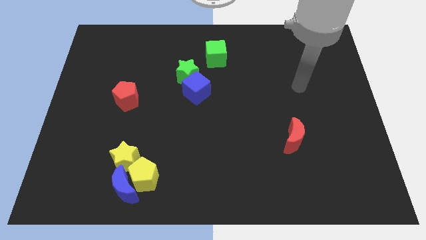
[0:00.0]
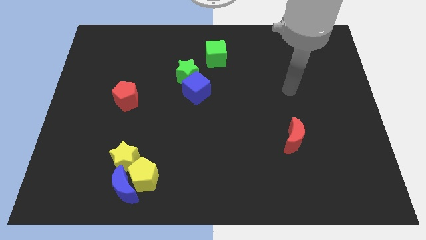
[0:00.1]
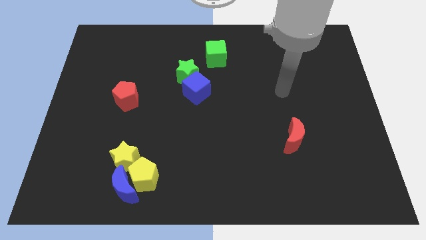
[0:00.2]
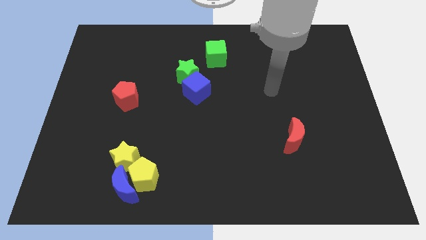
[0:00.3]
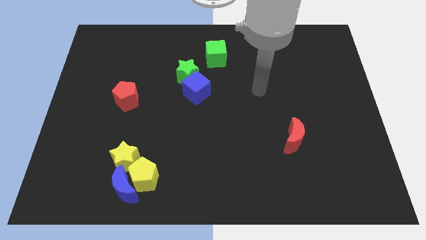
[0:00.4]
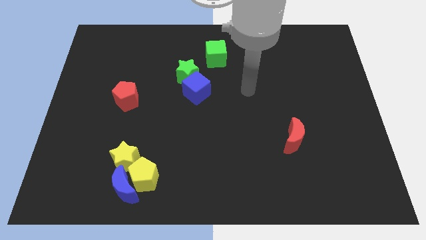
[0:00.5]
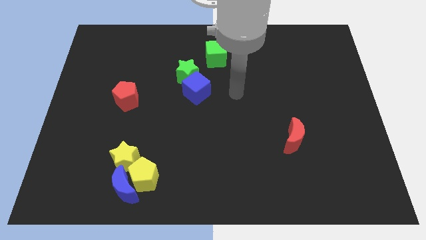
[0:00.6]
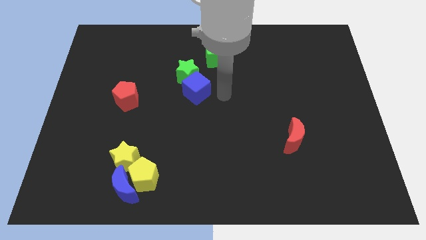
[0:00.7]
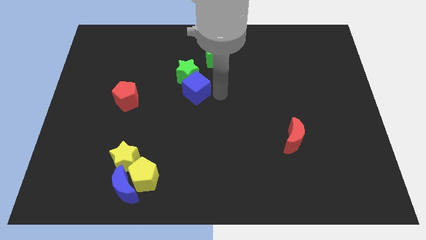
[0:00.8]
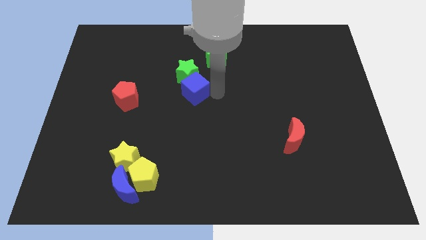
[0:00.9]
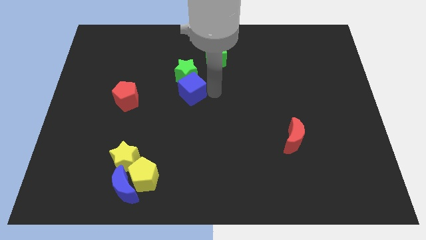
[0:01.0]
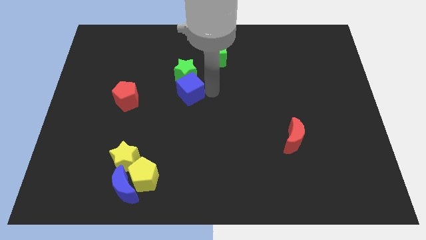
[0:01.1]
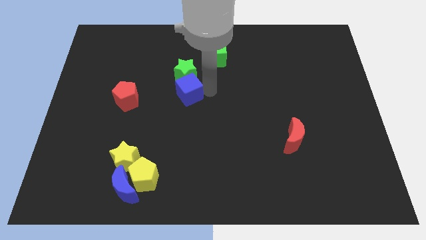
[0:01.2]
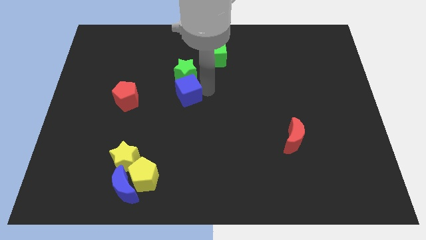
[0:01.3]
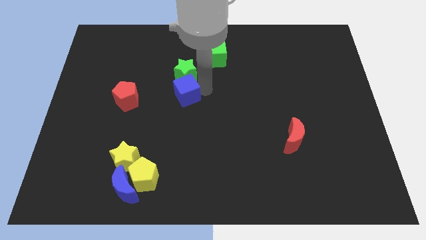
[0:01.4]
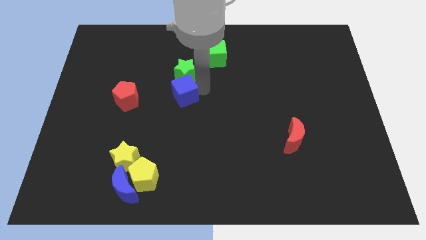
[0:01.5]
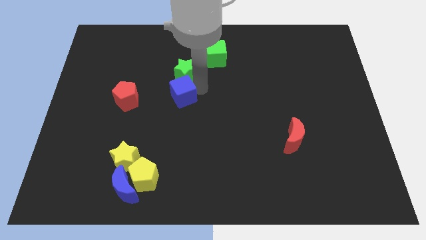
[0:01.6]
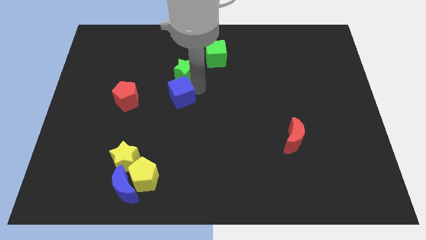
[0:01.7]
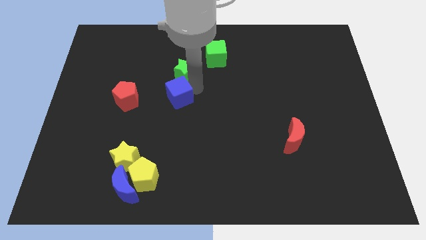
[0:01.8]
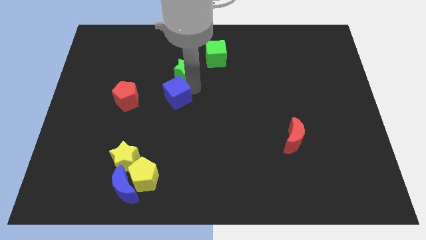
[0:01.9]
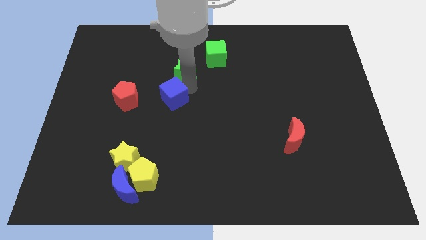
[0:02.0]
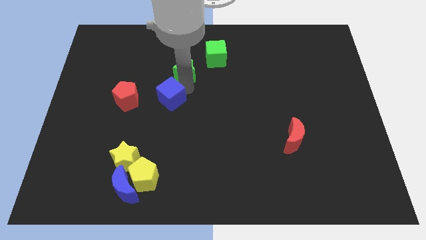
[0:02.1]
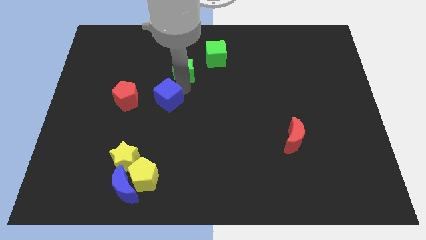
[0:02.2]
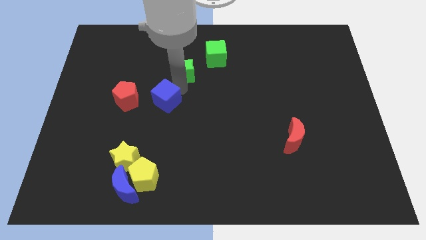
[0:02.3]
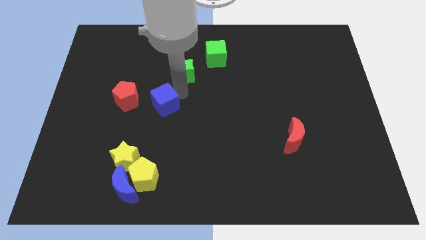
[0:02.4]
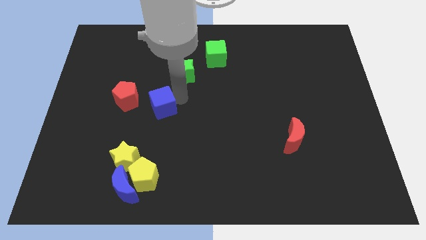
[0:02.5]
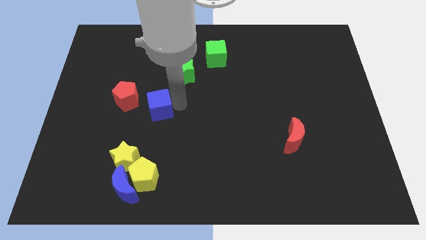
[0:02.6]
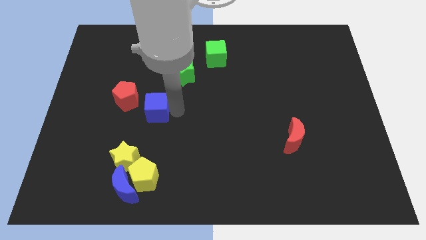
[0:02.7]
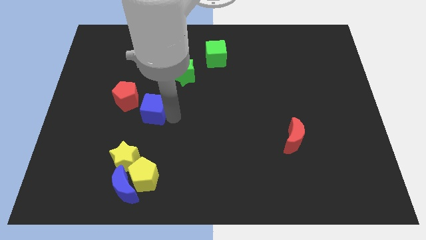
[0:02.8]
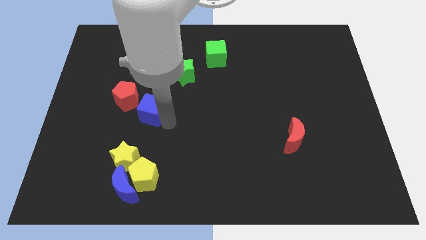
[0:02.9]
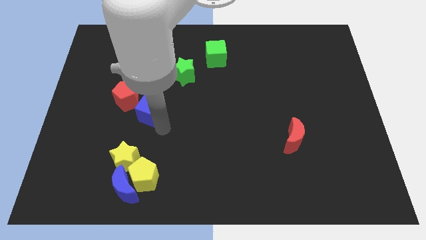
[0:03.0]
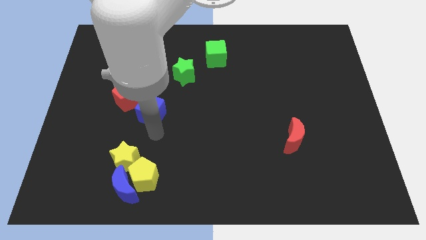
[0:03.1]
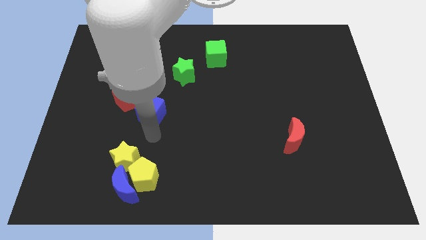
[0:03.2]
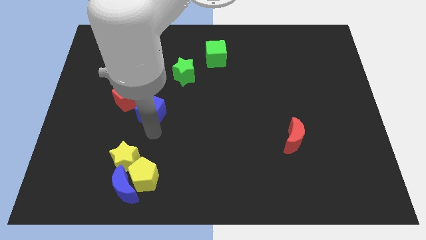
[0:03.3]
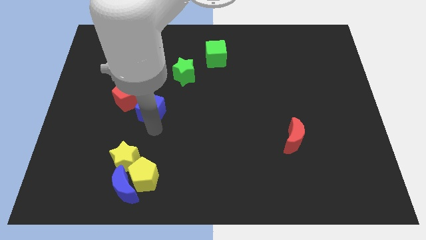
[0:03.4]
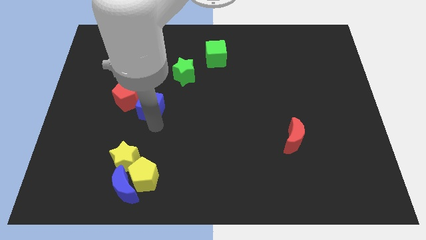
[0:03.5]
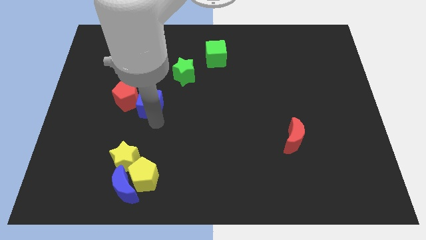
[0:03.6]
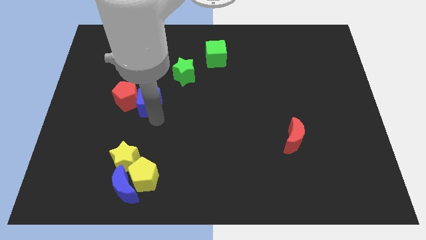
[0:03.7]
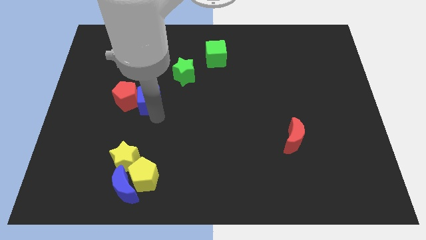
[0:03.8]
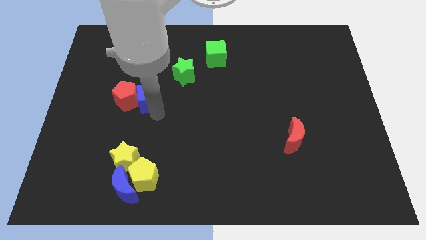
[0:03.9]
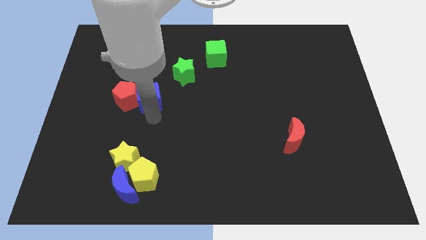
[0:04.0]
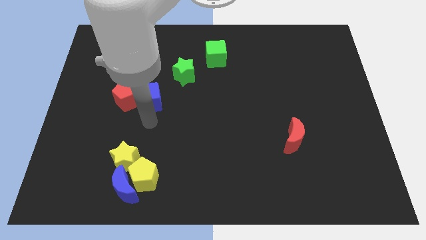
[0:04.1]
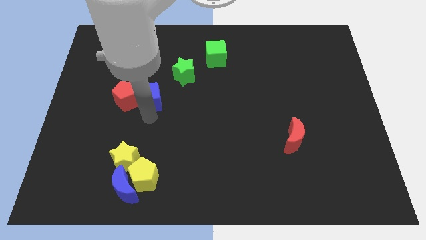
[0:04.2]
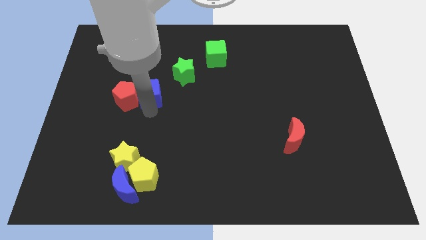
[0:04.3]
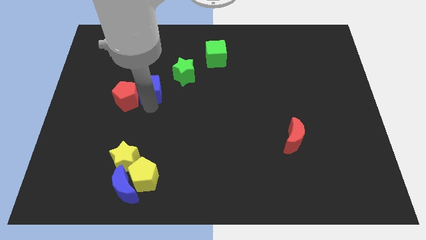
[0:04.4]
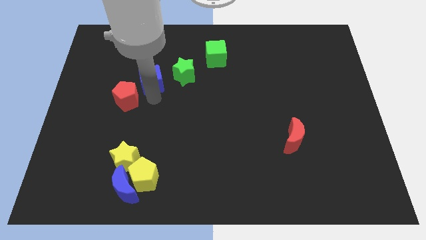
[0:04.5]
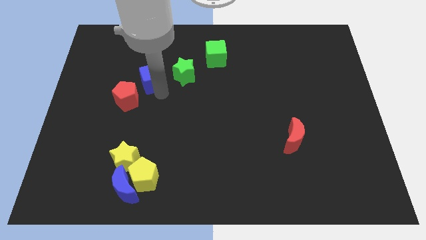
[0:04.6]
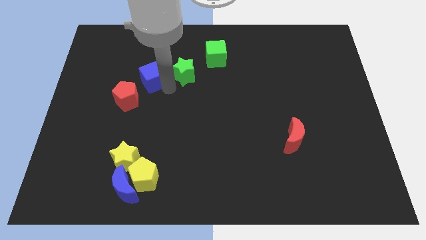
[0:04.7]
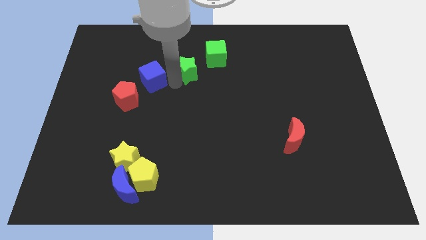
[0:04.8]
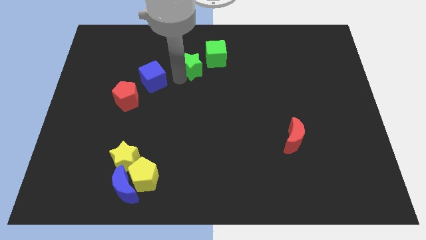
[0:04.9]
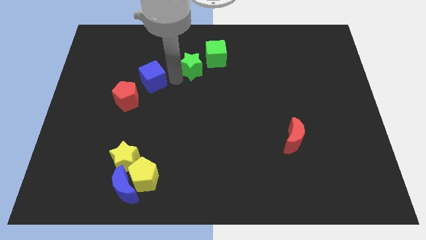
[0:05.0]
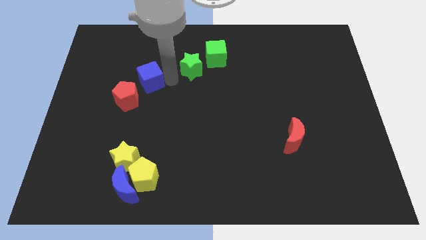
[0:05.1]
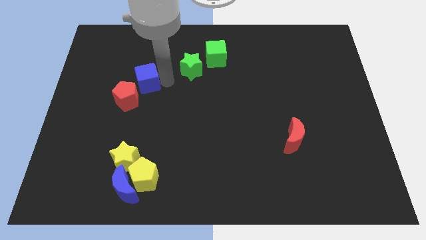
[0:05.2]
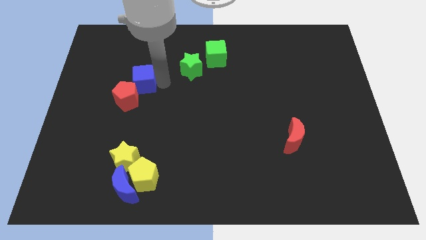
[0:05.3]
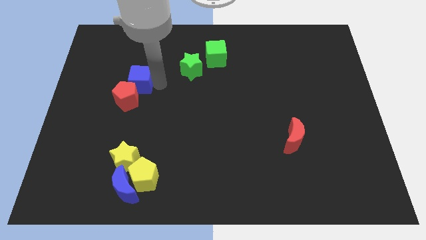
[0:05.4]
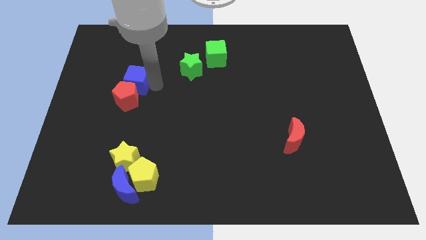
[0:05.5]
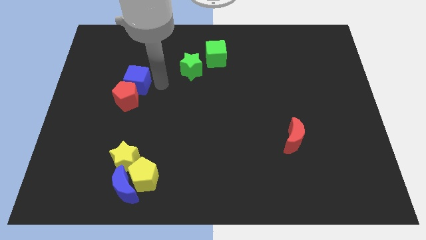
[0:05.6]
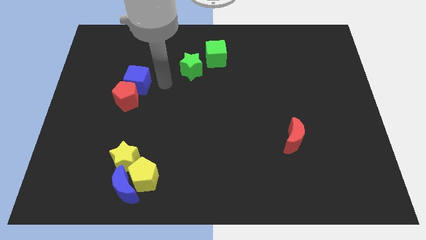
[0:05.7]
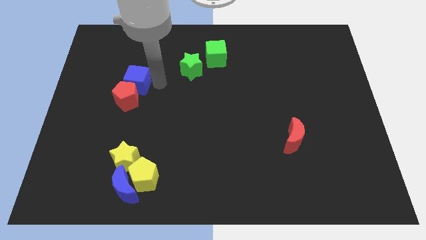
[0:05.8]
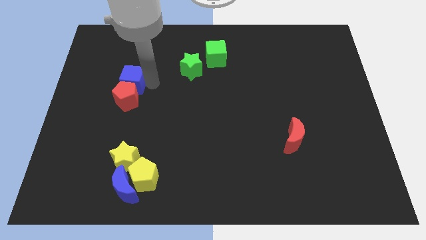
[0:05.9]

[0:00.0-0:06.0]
put the blue cube to the top left of the red pentagon

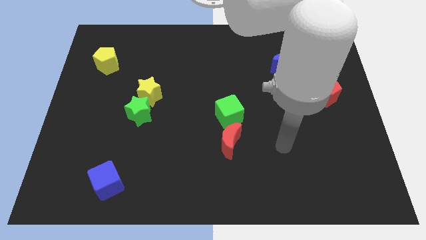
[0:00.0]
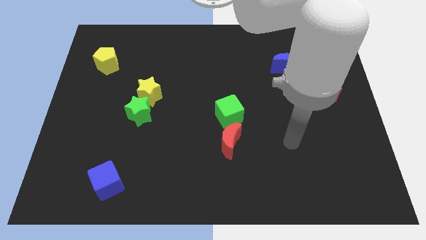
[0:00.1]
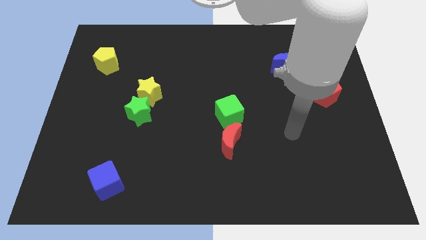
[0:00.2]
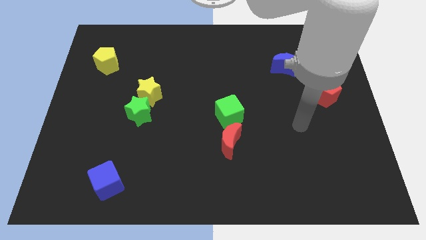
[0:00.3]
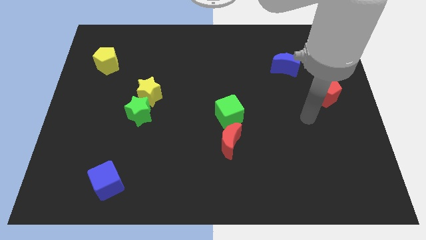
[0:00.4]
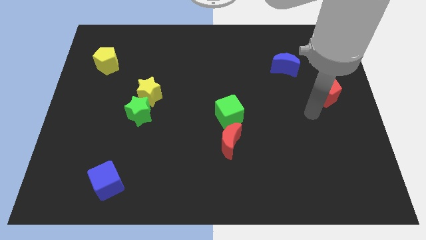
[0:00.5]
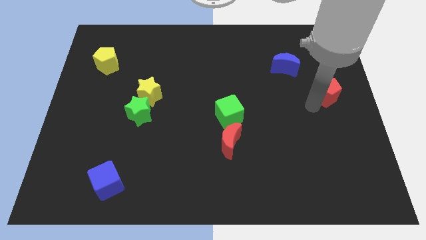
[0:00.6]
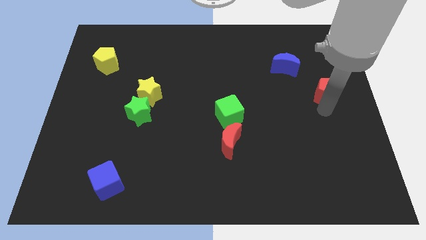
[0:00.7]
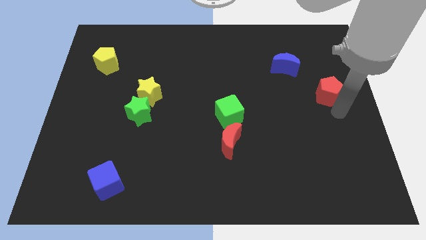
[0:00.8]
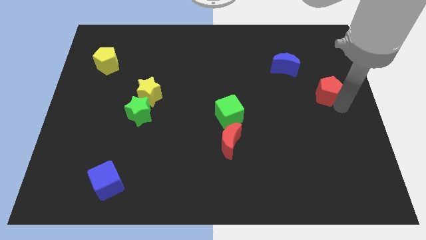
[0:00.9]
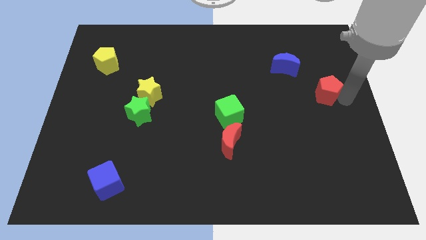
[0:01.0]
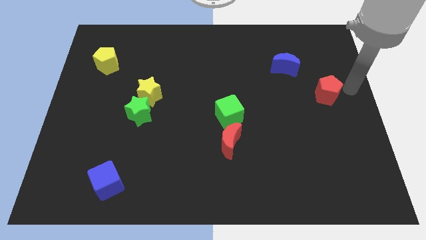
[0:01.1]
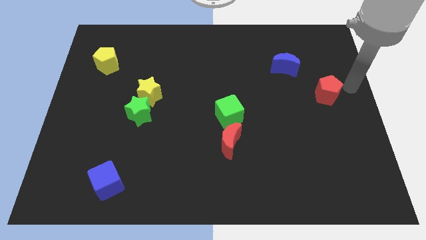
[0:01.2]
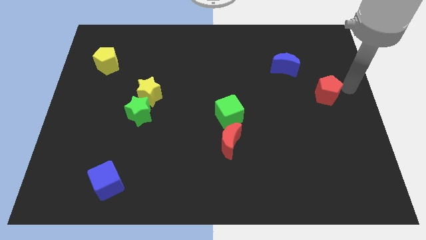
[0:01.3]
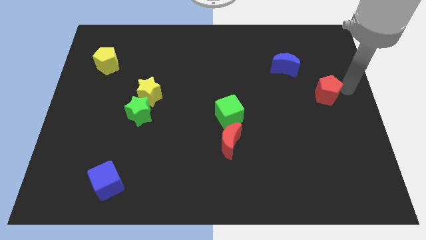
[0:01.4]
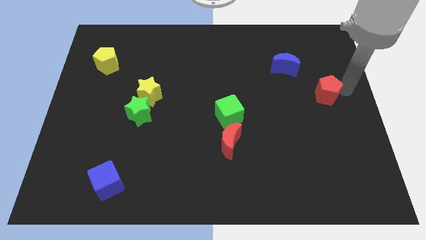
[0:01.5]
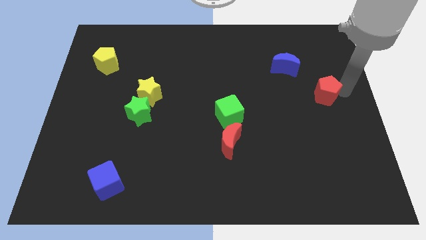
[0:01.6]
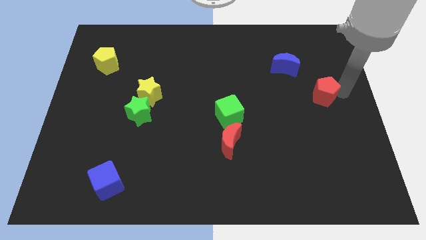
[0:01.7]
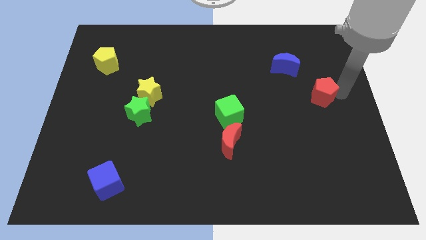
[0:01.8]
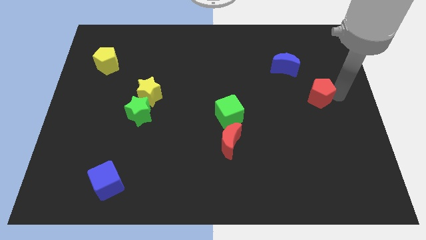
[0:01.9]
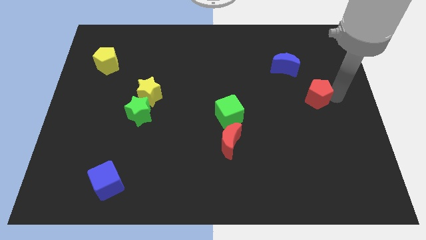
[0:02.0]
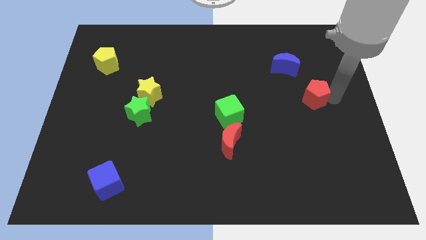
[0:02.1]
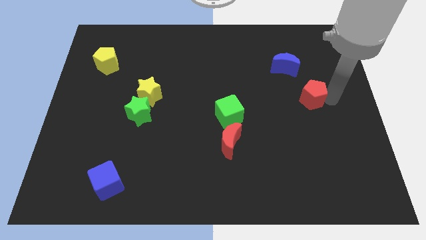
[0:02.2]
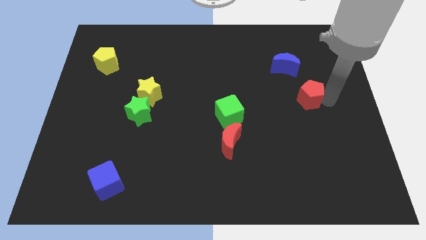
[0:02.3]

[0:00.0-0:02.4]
push the red pentagon below the blue moon
